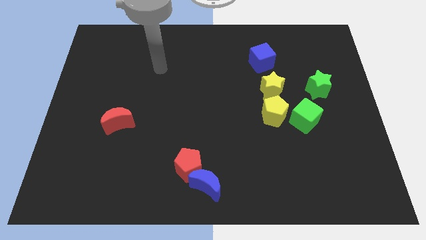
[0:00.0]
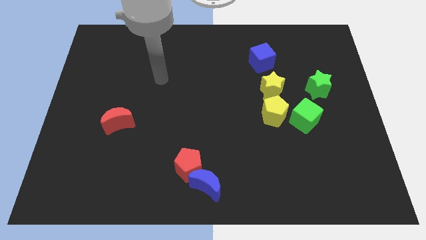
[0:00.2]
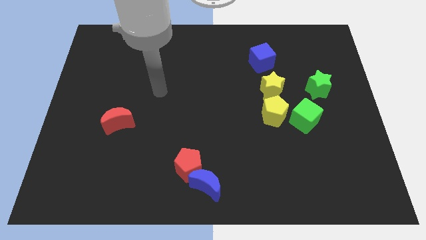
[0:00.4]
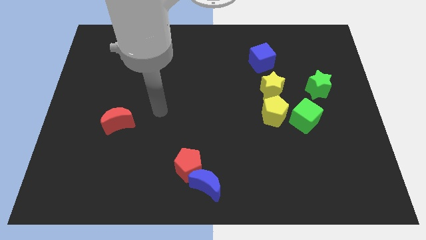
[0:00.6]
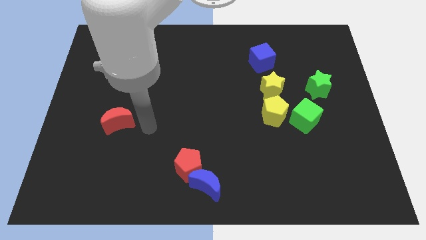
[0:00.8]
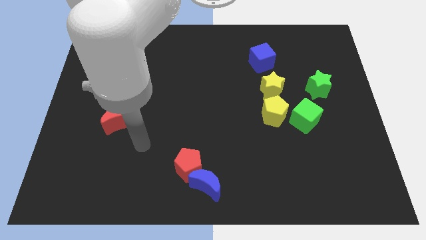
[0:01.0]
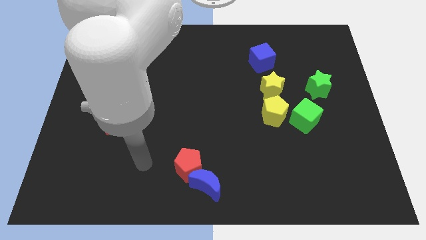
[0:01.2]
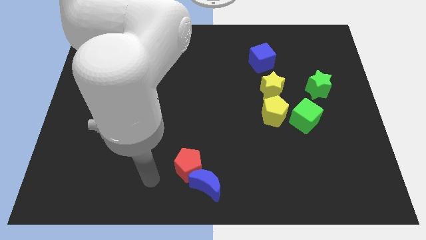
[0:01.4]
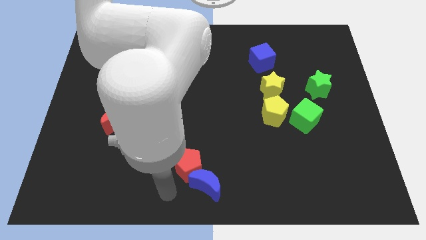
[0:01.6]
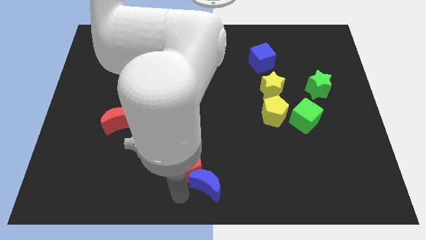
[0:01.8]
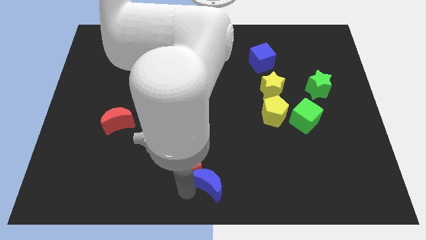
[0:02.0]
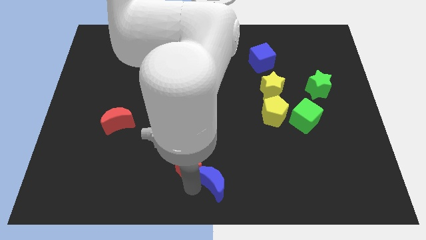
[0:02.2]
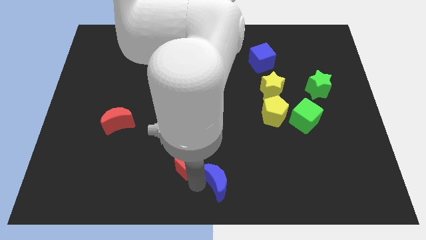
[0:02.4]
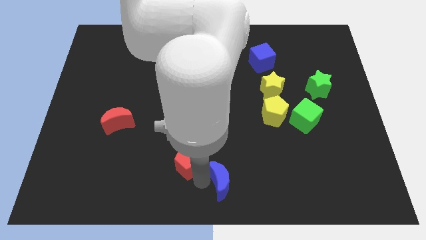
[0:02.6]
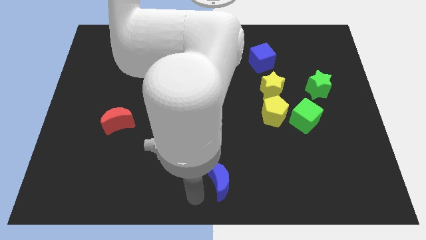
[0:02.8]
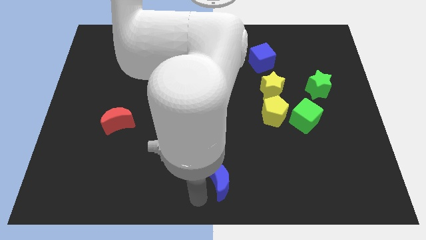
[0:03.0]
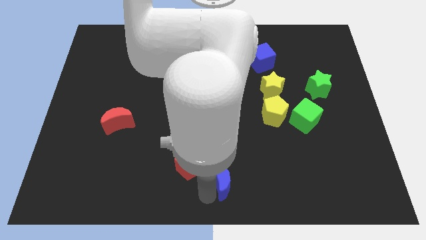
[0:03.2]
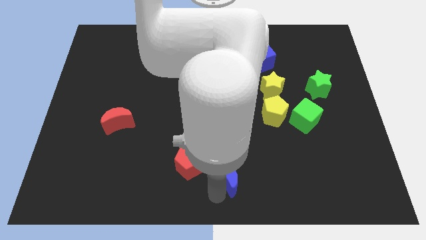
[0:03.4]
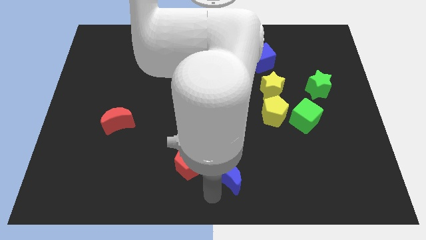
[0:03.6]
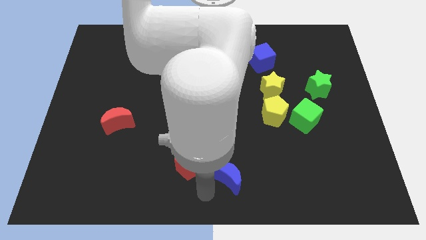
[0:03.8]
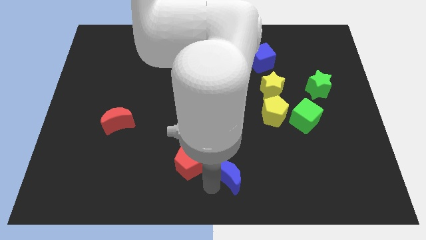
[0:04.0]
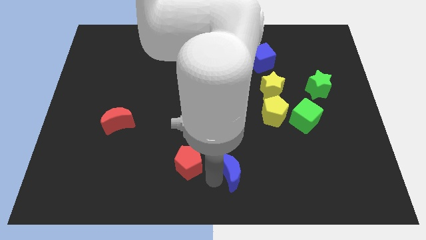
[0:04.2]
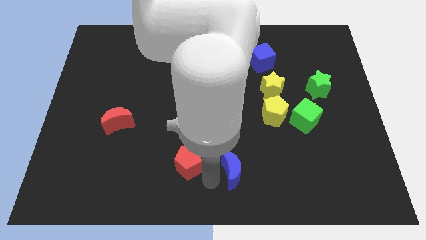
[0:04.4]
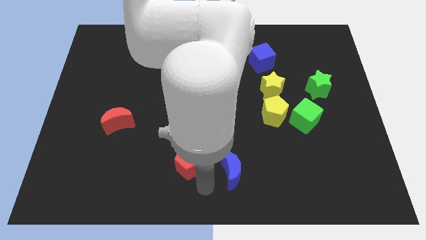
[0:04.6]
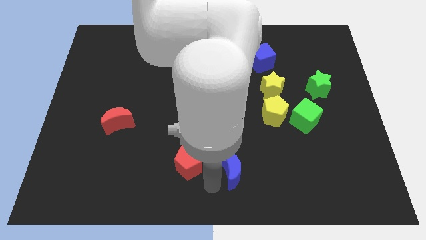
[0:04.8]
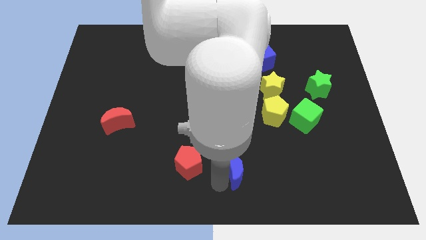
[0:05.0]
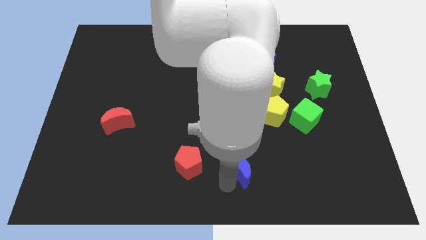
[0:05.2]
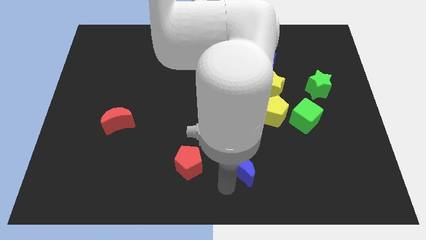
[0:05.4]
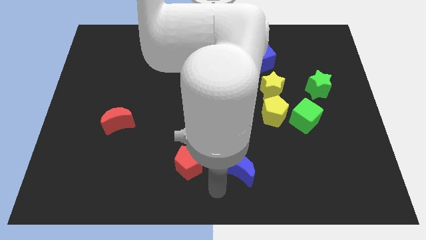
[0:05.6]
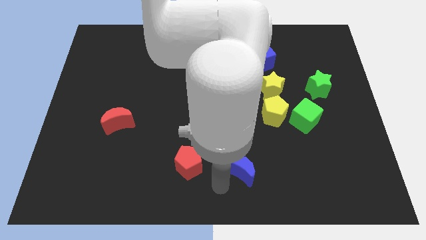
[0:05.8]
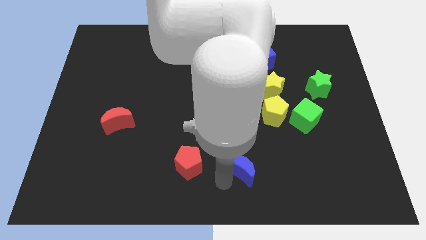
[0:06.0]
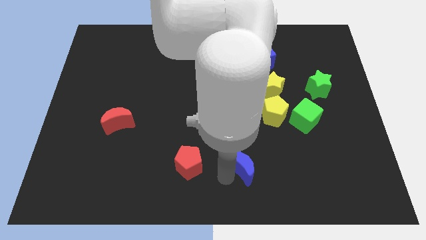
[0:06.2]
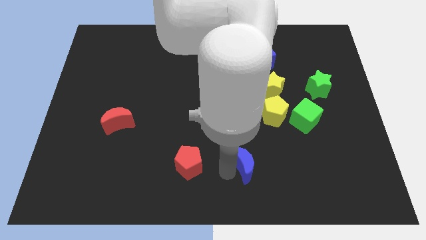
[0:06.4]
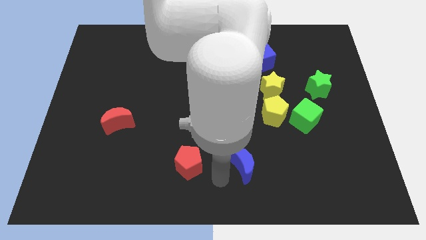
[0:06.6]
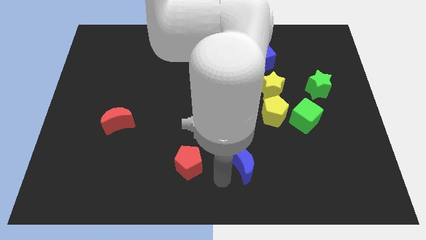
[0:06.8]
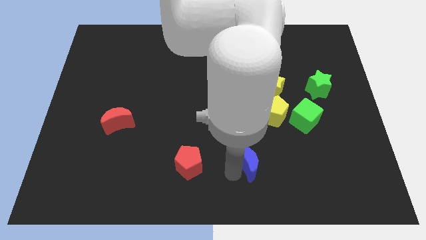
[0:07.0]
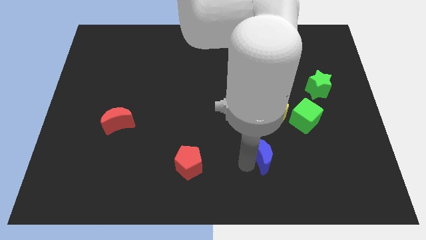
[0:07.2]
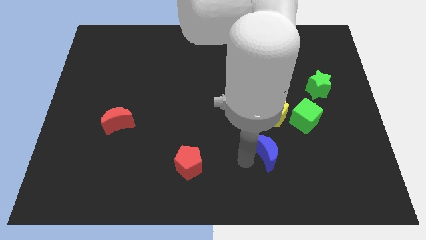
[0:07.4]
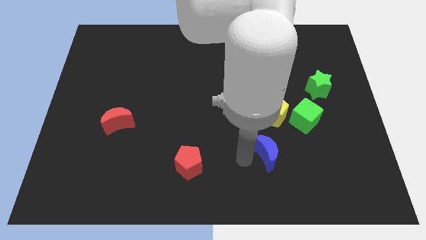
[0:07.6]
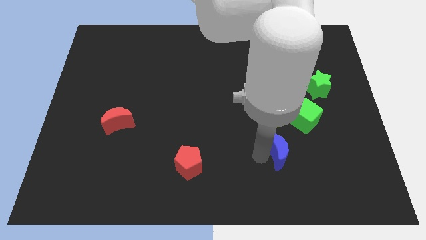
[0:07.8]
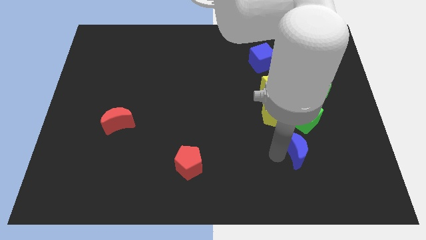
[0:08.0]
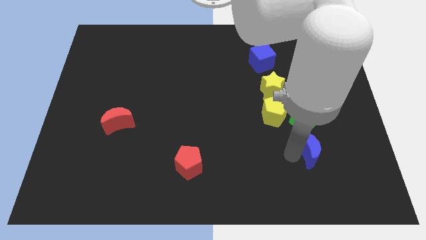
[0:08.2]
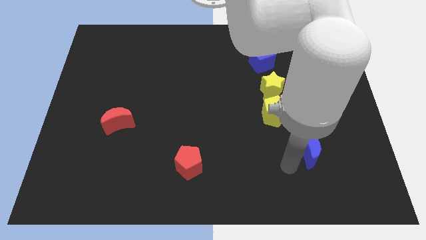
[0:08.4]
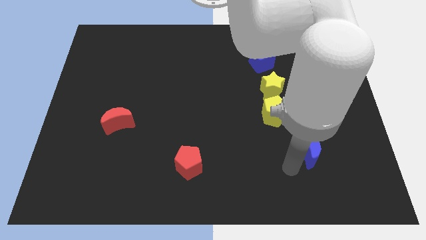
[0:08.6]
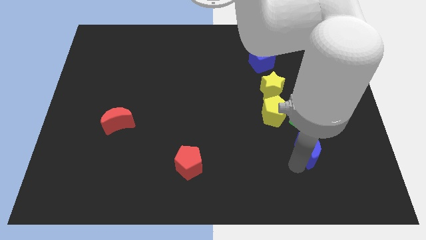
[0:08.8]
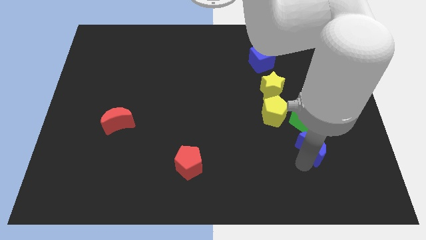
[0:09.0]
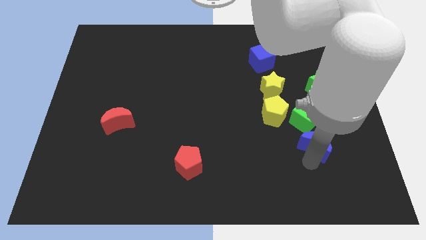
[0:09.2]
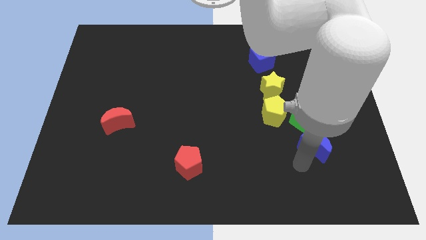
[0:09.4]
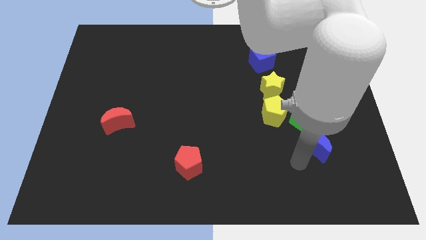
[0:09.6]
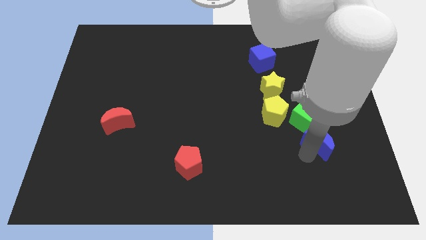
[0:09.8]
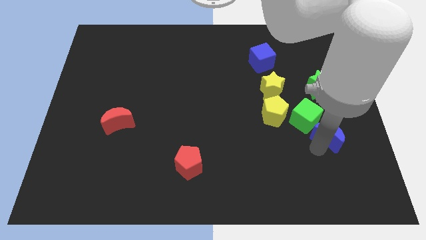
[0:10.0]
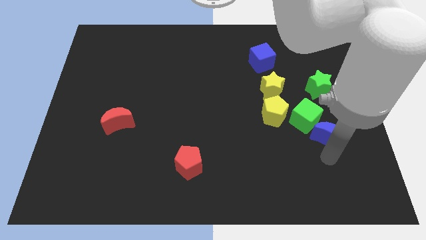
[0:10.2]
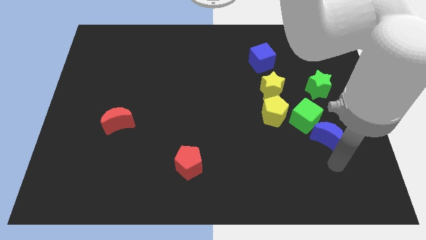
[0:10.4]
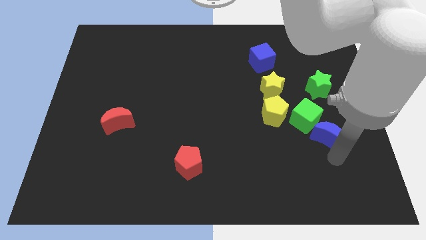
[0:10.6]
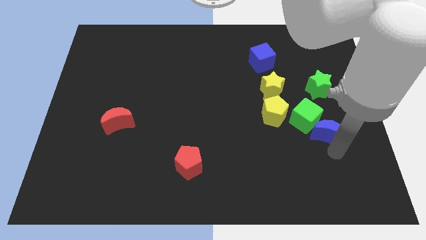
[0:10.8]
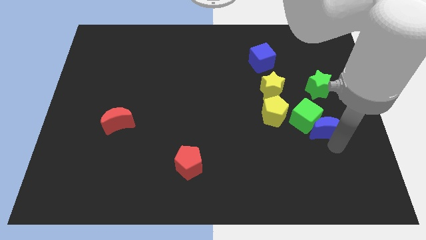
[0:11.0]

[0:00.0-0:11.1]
move the blue moon to the right of the yellow pentagon
